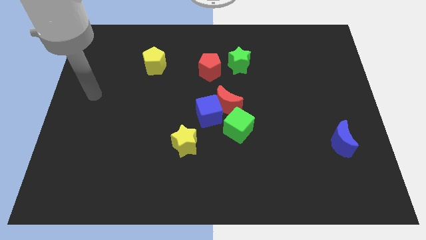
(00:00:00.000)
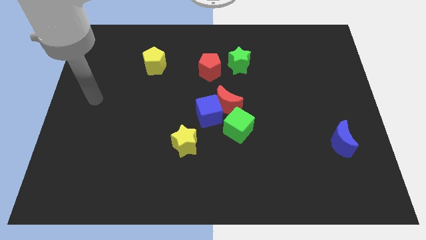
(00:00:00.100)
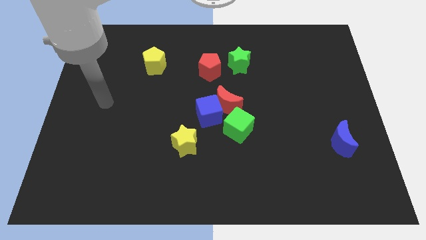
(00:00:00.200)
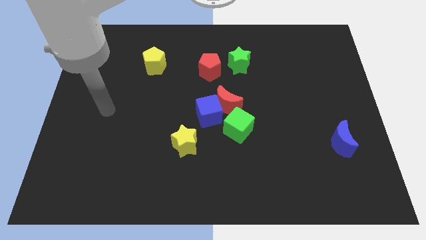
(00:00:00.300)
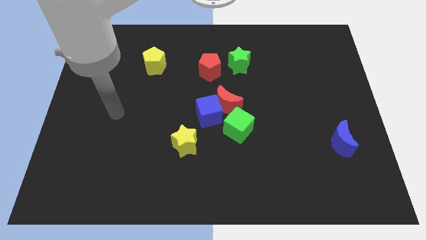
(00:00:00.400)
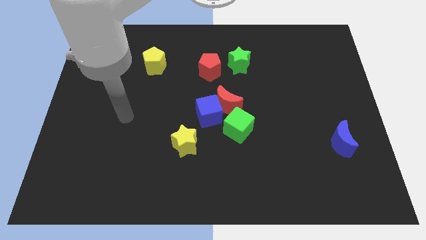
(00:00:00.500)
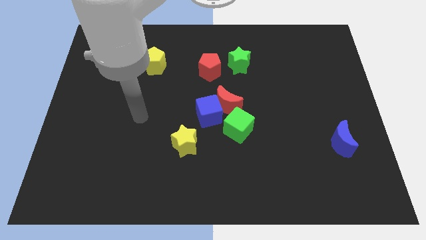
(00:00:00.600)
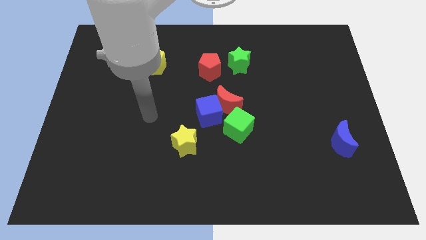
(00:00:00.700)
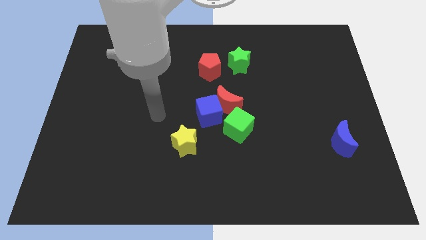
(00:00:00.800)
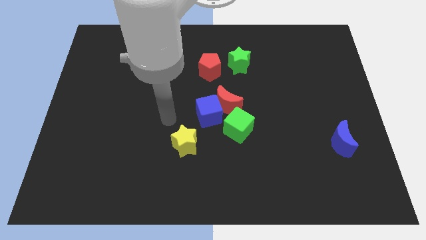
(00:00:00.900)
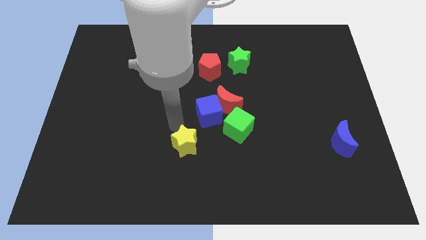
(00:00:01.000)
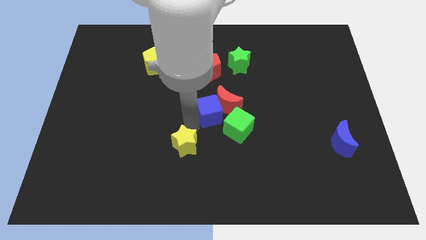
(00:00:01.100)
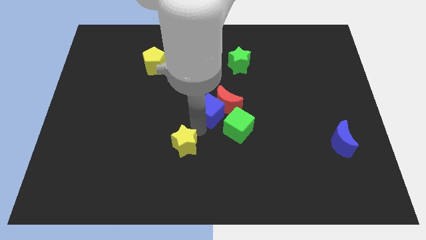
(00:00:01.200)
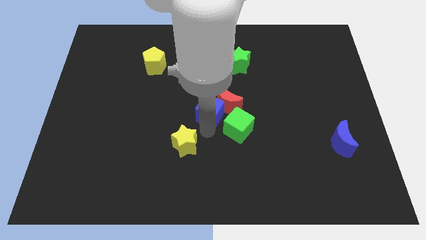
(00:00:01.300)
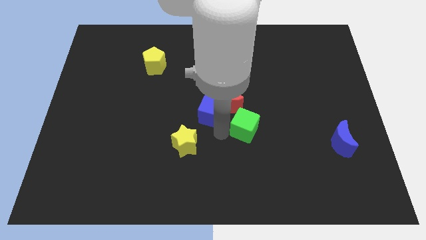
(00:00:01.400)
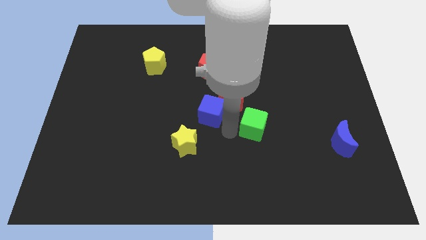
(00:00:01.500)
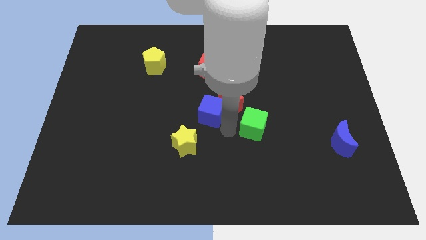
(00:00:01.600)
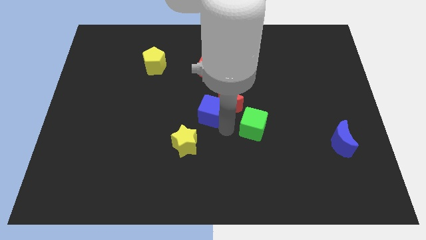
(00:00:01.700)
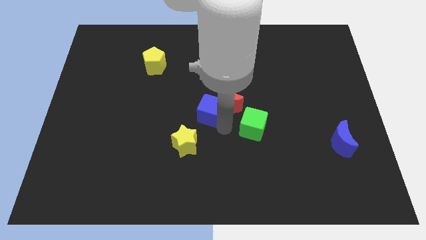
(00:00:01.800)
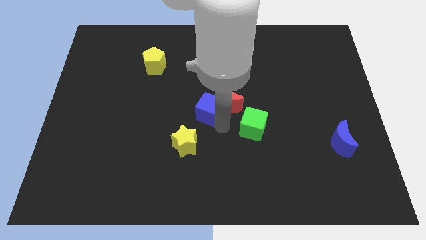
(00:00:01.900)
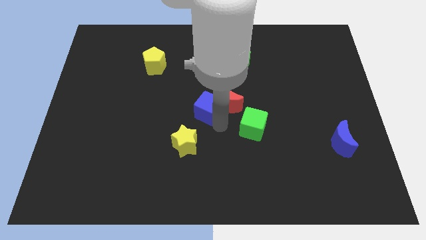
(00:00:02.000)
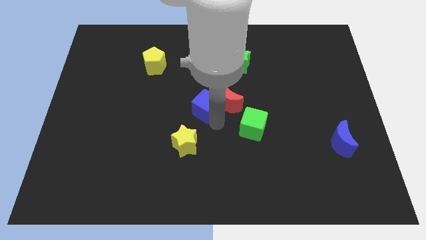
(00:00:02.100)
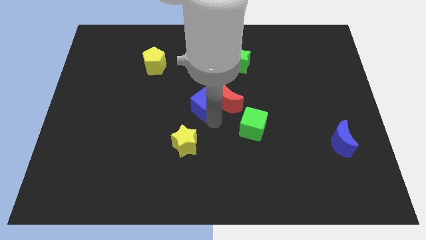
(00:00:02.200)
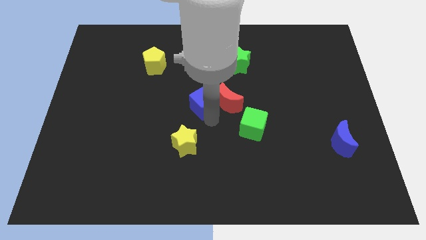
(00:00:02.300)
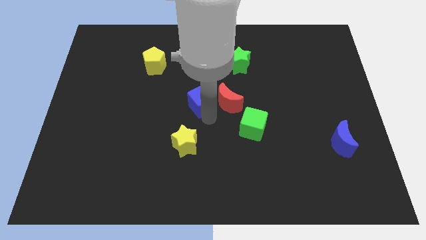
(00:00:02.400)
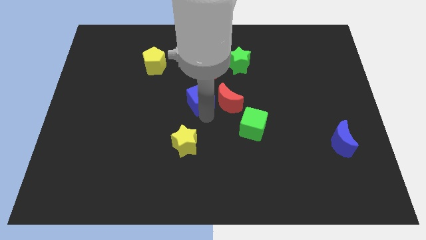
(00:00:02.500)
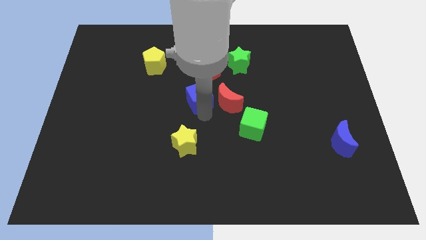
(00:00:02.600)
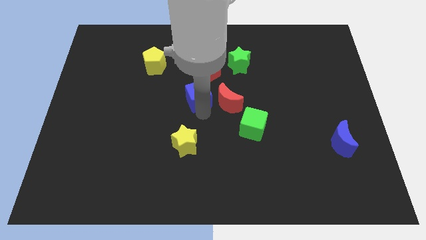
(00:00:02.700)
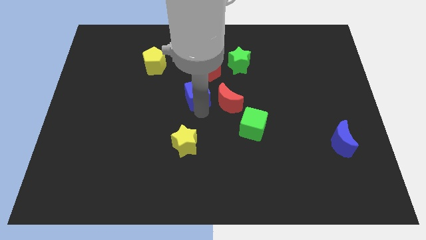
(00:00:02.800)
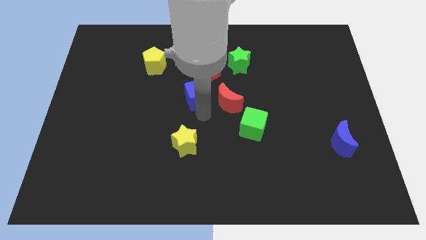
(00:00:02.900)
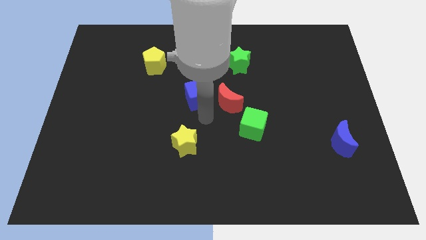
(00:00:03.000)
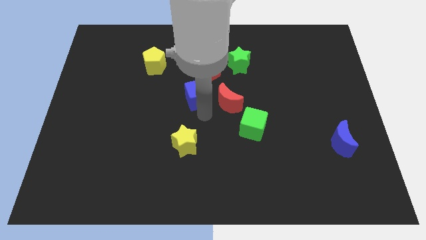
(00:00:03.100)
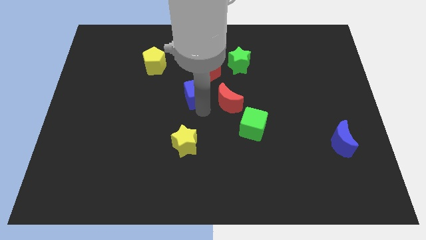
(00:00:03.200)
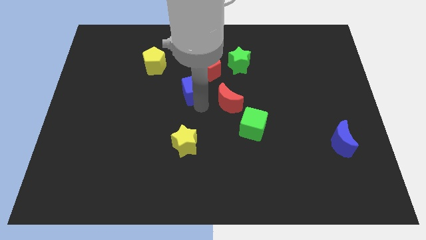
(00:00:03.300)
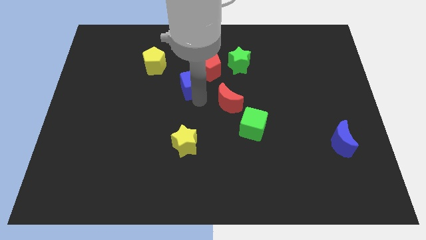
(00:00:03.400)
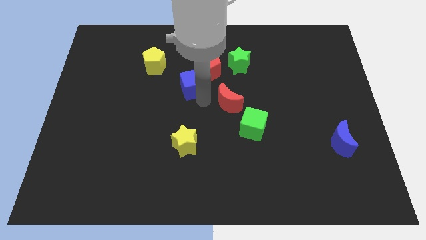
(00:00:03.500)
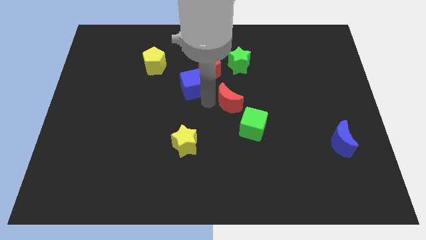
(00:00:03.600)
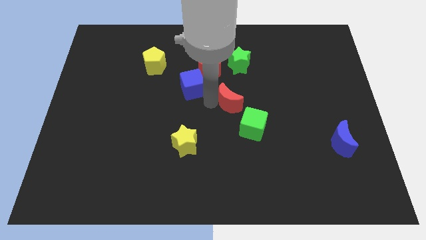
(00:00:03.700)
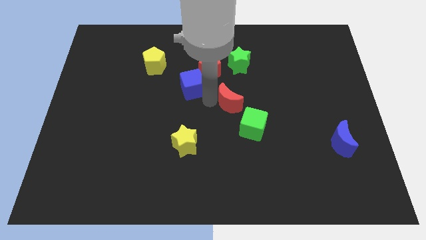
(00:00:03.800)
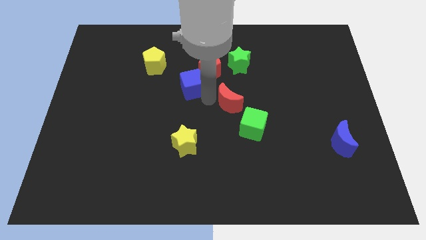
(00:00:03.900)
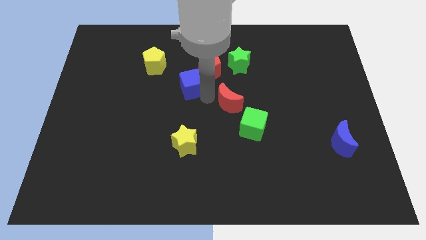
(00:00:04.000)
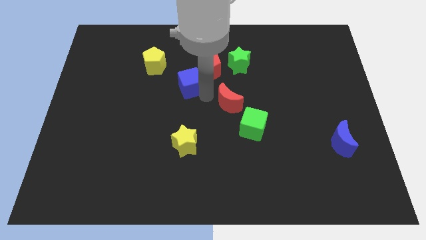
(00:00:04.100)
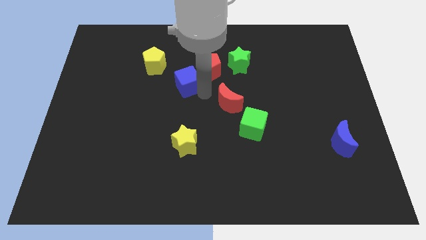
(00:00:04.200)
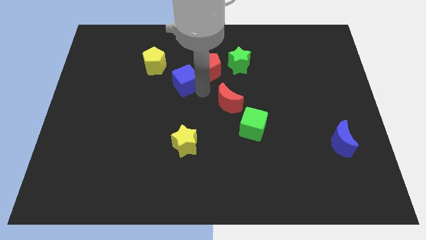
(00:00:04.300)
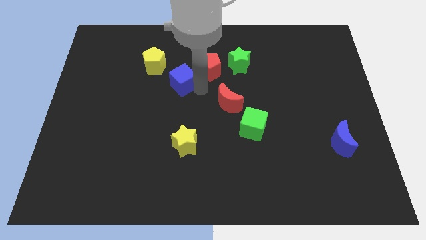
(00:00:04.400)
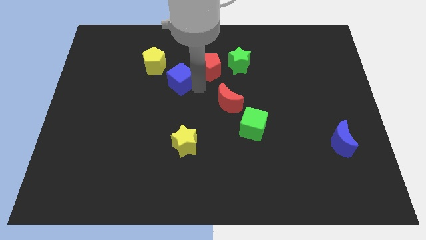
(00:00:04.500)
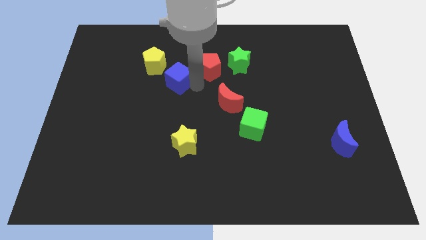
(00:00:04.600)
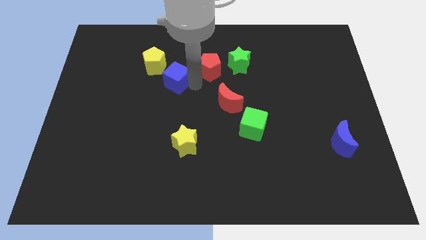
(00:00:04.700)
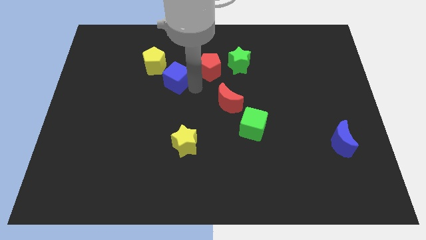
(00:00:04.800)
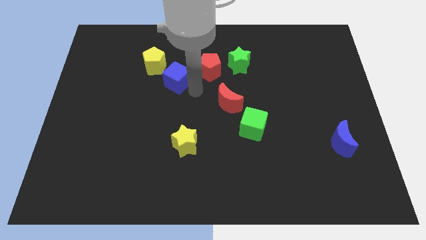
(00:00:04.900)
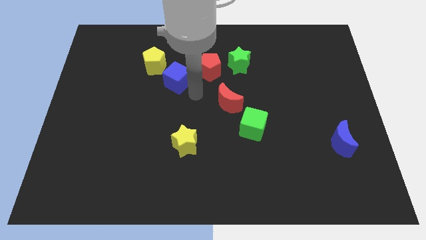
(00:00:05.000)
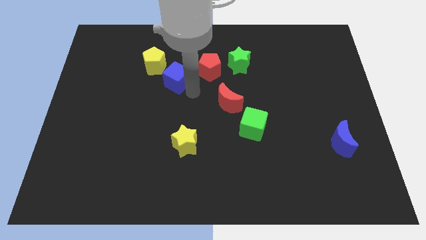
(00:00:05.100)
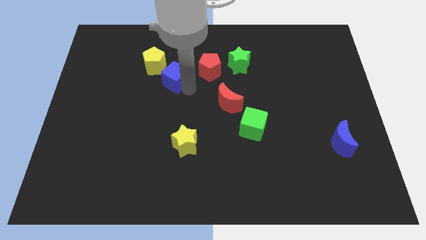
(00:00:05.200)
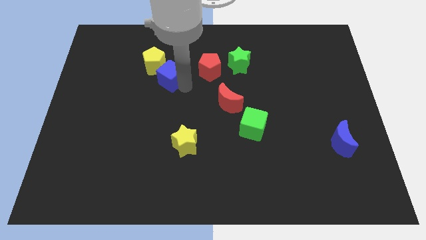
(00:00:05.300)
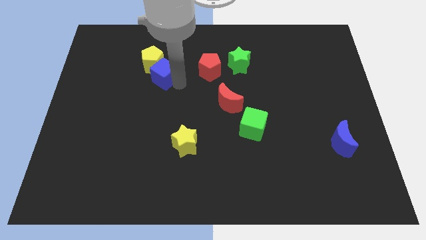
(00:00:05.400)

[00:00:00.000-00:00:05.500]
push the blue cube to the yellow pentagon

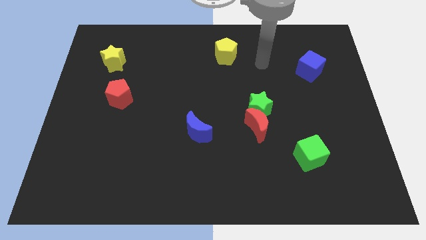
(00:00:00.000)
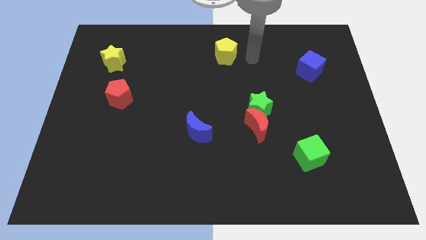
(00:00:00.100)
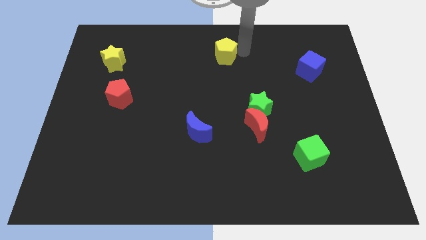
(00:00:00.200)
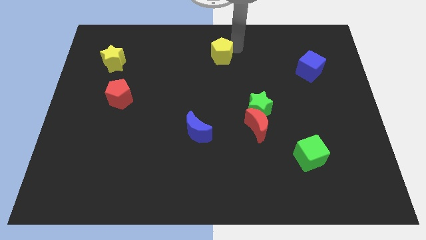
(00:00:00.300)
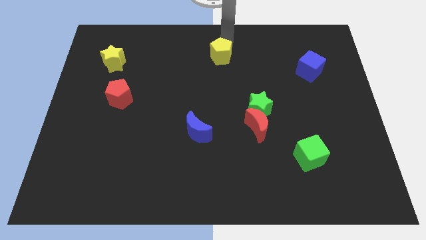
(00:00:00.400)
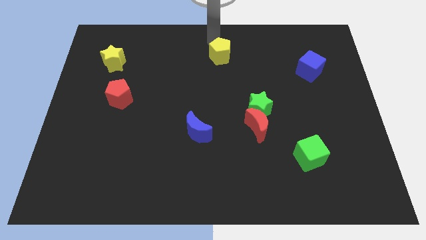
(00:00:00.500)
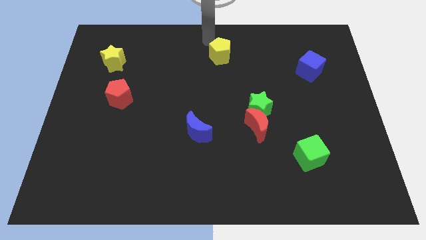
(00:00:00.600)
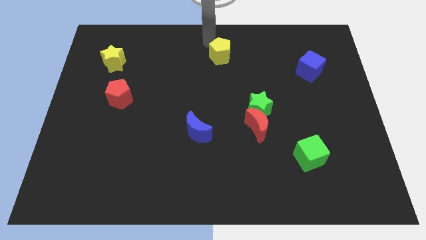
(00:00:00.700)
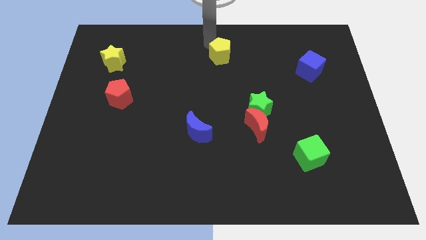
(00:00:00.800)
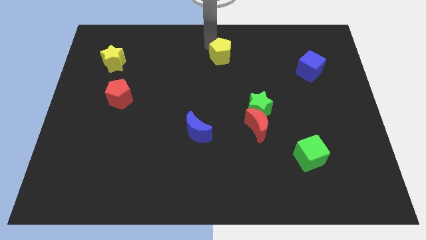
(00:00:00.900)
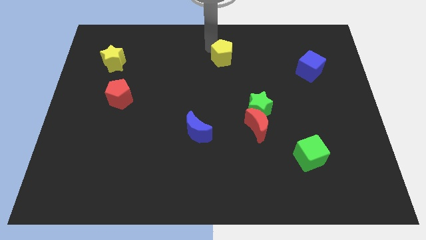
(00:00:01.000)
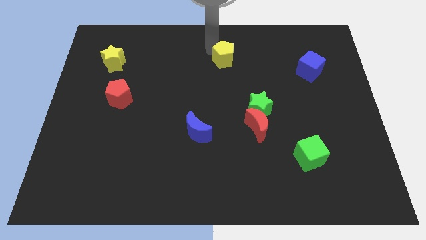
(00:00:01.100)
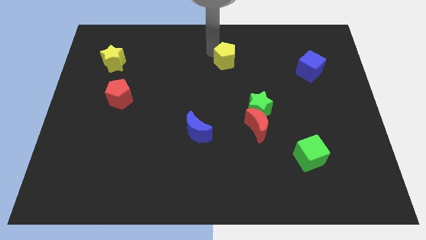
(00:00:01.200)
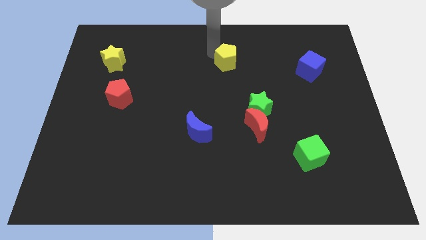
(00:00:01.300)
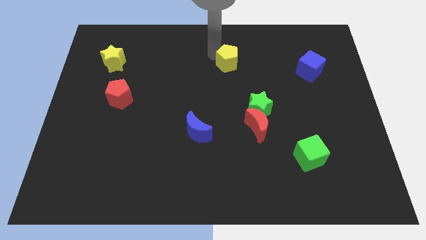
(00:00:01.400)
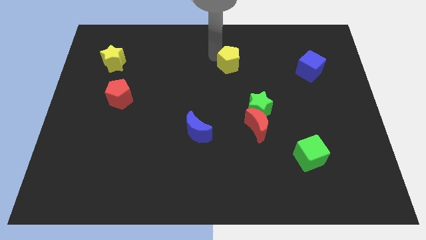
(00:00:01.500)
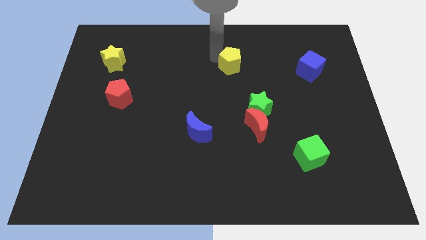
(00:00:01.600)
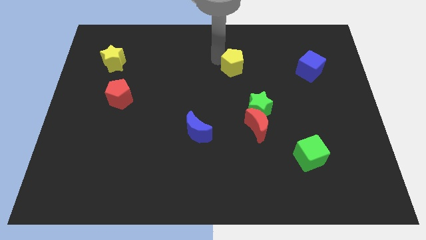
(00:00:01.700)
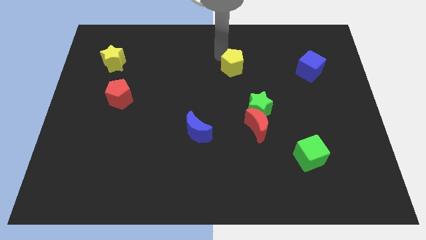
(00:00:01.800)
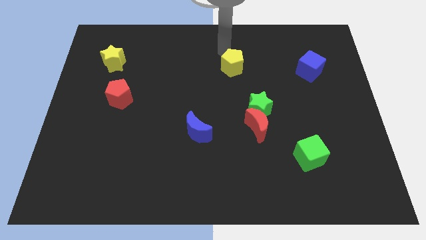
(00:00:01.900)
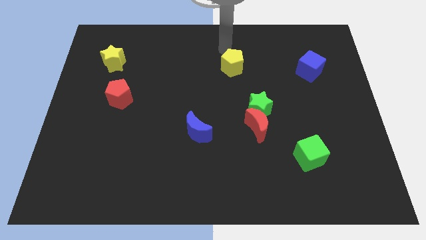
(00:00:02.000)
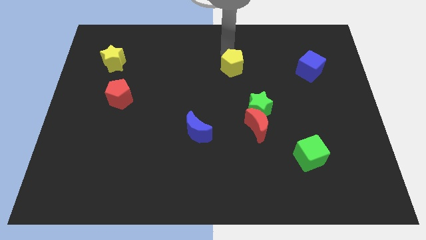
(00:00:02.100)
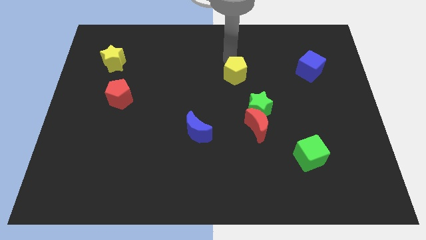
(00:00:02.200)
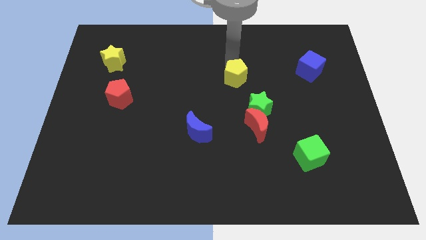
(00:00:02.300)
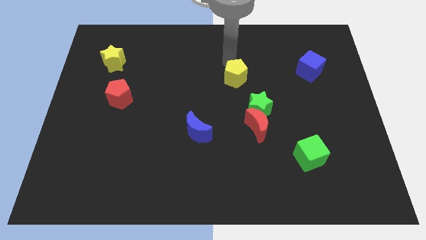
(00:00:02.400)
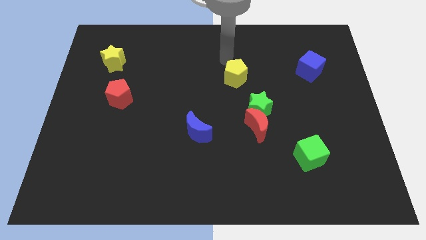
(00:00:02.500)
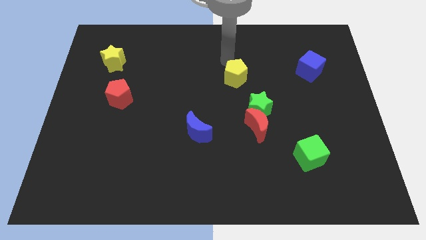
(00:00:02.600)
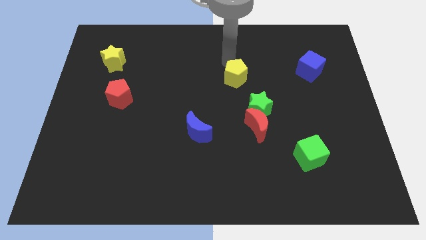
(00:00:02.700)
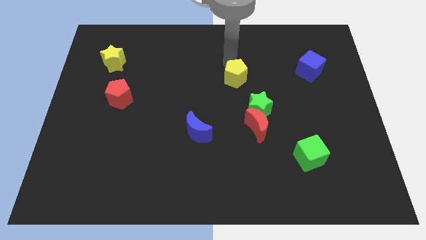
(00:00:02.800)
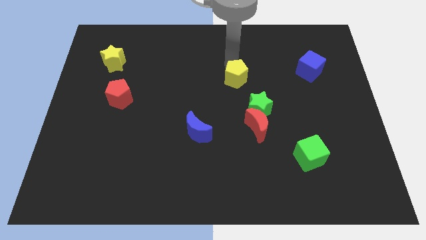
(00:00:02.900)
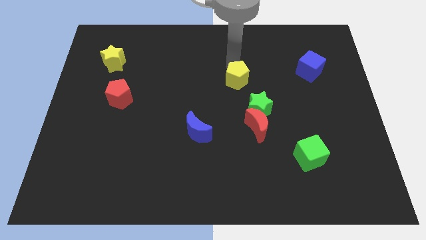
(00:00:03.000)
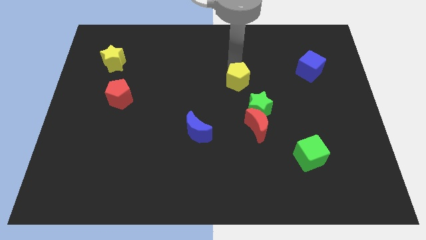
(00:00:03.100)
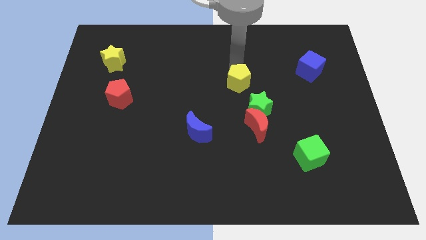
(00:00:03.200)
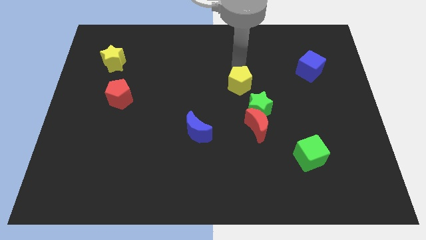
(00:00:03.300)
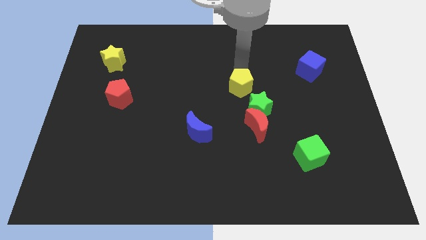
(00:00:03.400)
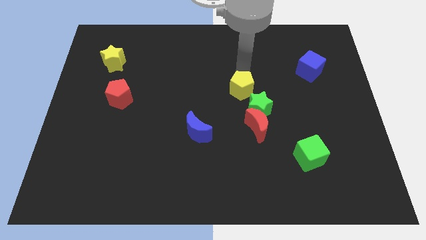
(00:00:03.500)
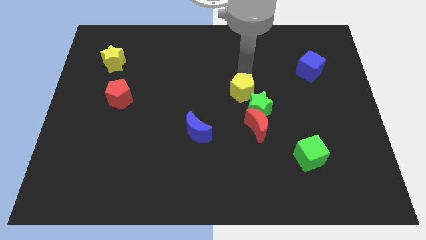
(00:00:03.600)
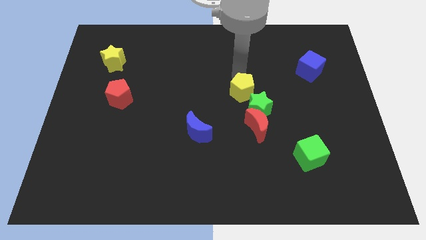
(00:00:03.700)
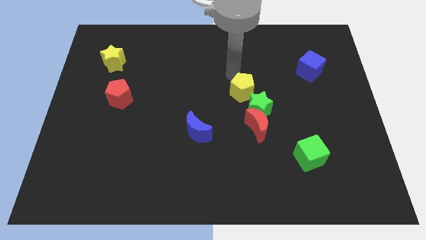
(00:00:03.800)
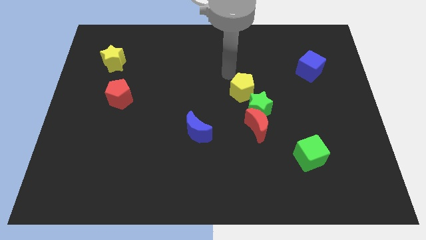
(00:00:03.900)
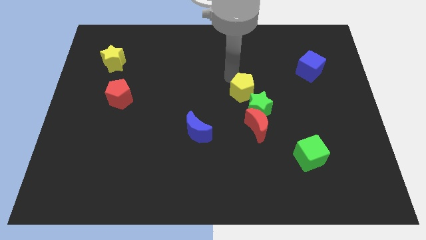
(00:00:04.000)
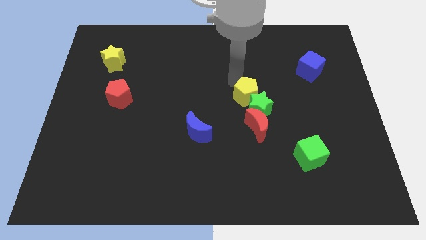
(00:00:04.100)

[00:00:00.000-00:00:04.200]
move the yellow pentagon towards the green star
